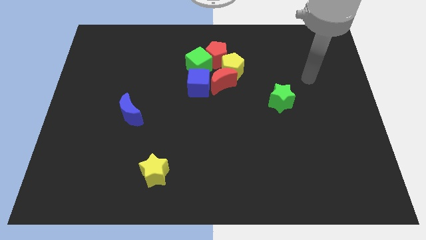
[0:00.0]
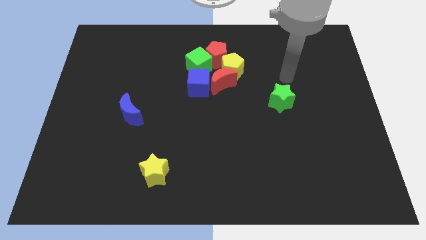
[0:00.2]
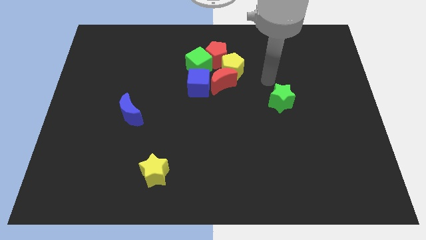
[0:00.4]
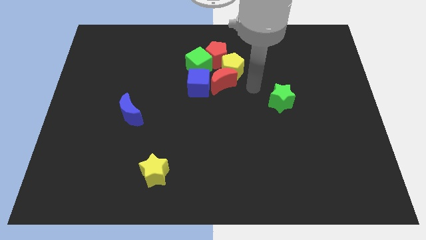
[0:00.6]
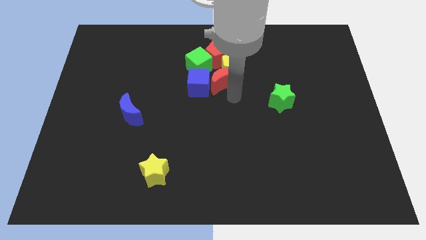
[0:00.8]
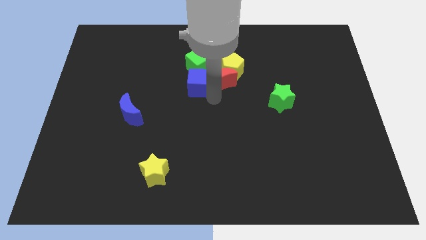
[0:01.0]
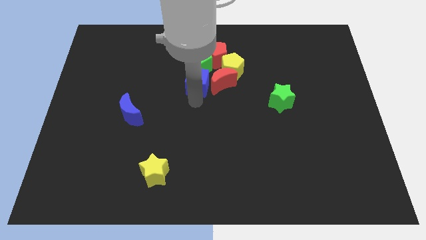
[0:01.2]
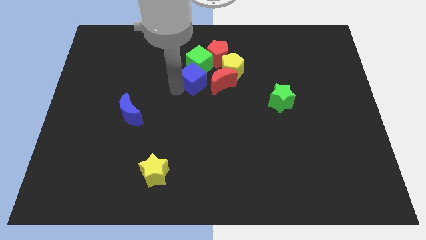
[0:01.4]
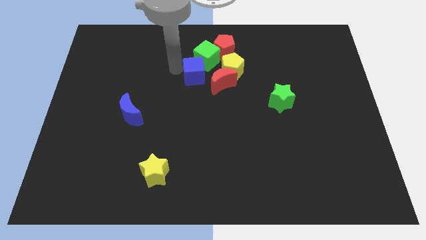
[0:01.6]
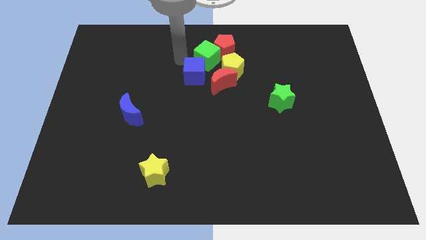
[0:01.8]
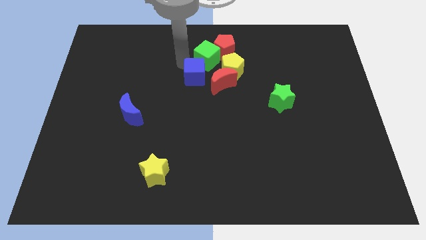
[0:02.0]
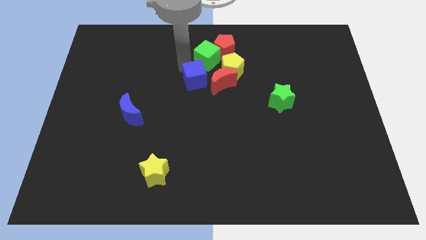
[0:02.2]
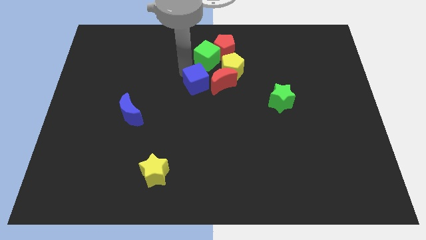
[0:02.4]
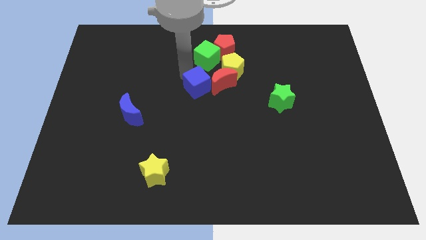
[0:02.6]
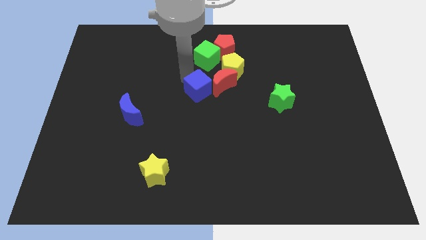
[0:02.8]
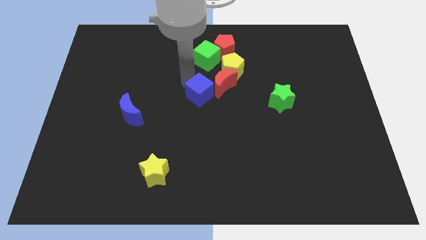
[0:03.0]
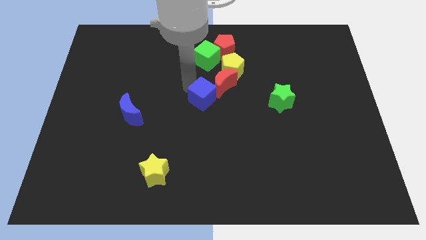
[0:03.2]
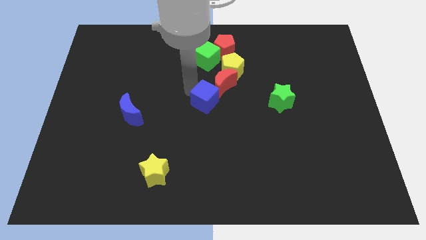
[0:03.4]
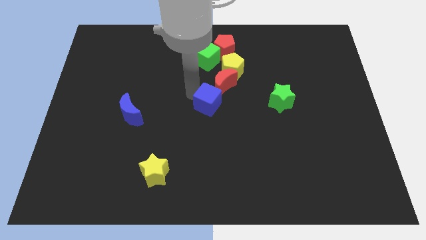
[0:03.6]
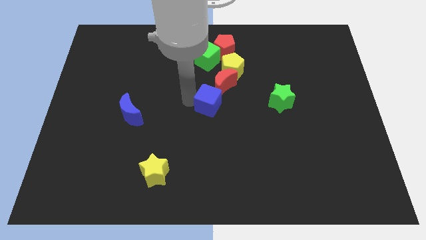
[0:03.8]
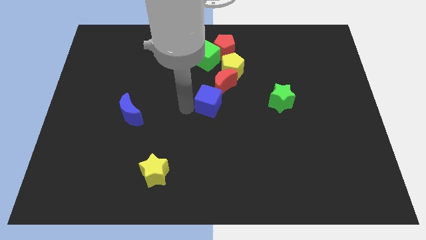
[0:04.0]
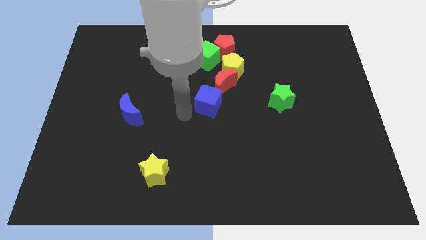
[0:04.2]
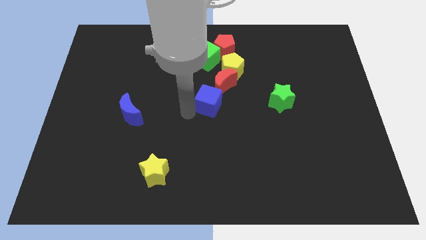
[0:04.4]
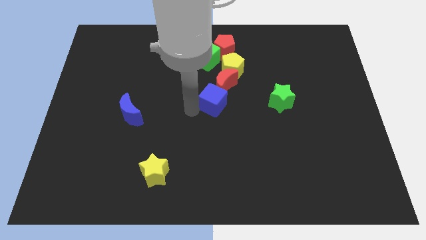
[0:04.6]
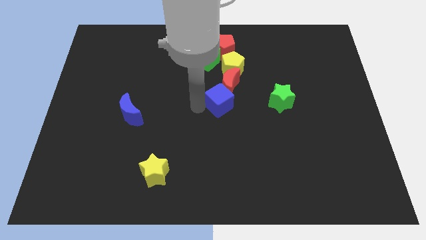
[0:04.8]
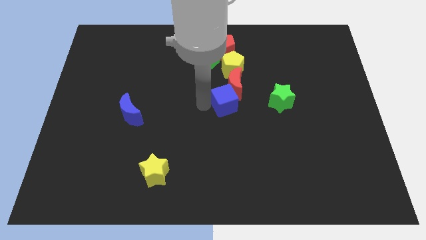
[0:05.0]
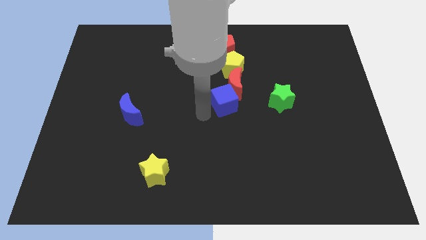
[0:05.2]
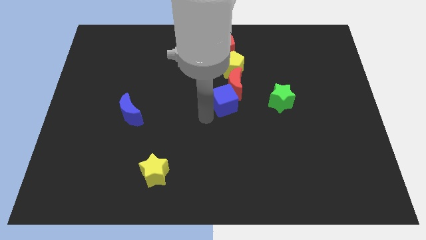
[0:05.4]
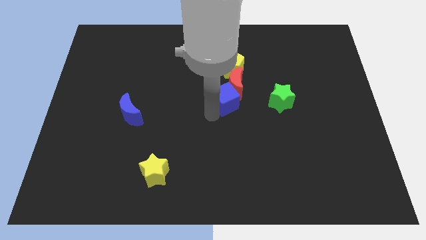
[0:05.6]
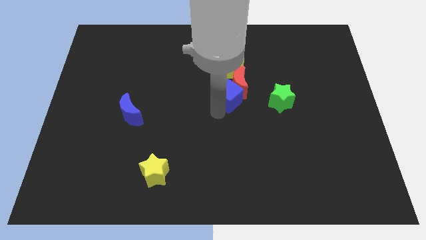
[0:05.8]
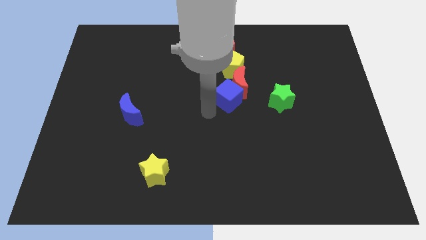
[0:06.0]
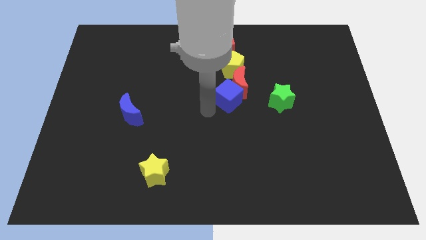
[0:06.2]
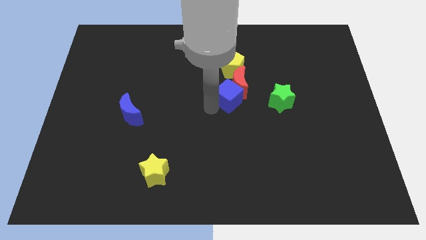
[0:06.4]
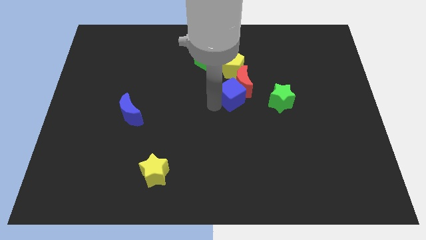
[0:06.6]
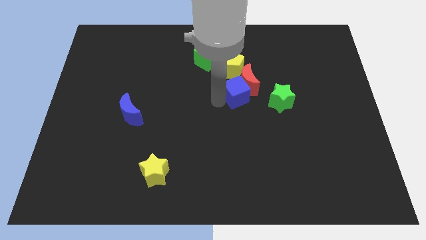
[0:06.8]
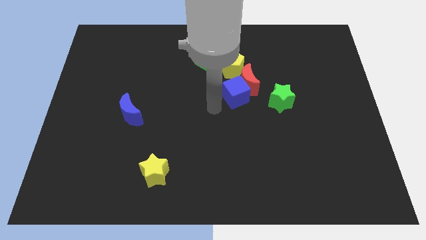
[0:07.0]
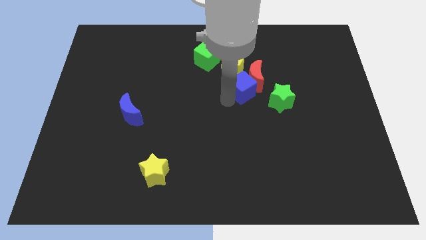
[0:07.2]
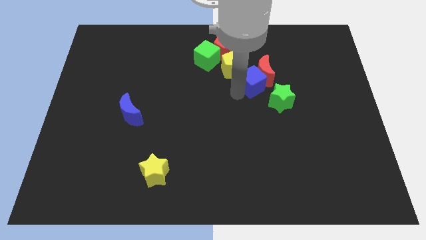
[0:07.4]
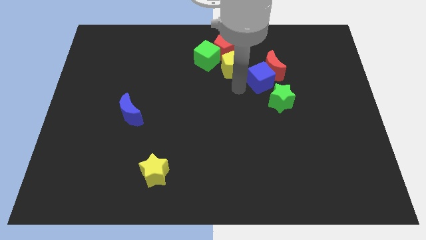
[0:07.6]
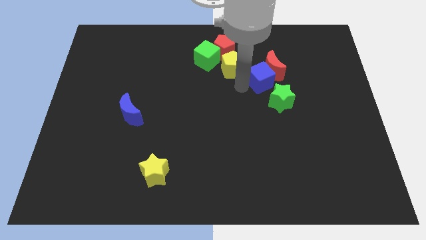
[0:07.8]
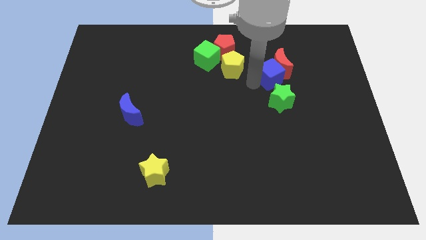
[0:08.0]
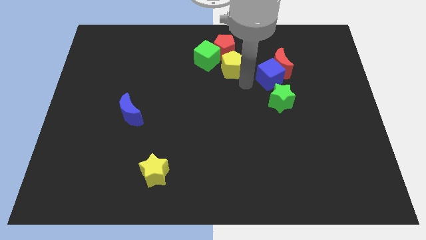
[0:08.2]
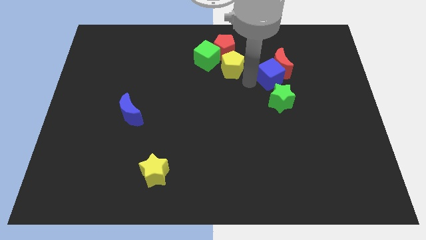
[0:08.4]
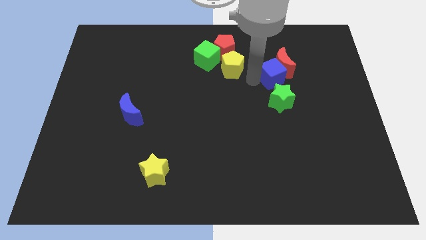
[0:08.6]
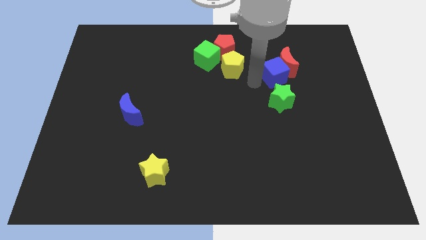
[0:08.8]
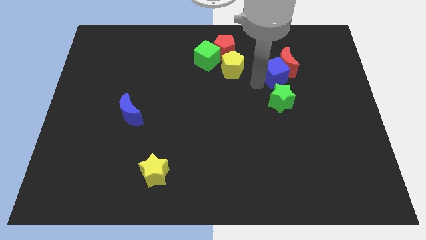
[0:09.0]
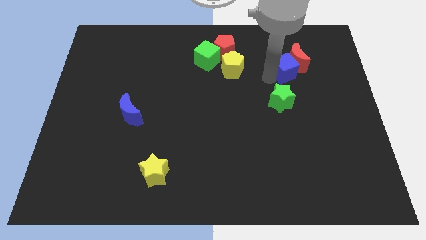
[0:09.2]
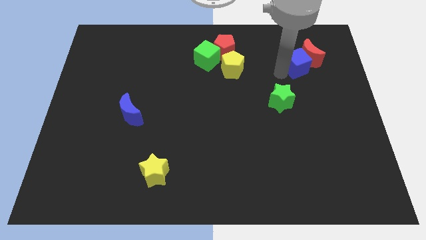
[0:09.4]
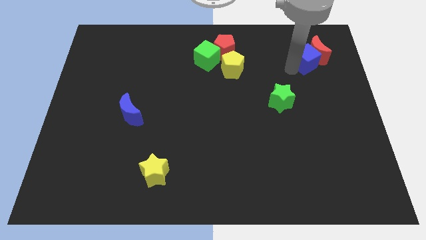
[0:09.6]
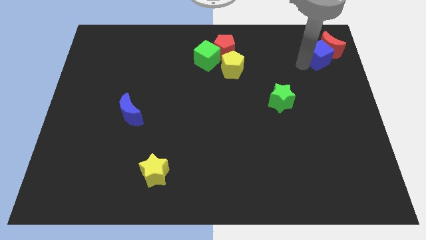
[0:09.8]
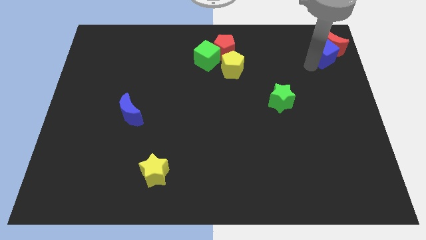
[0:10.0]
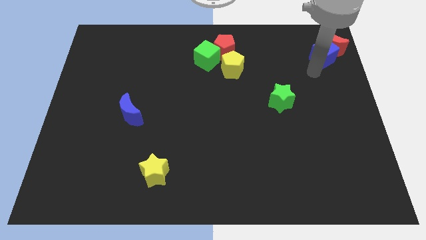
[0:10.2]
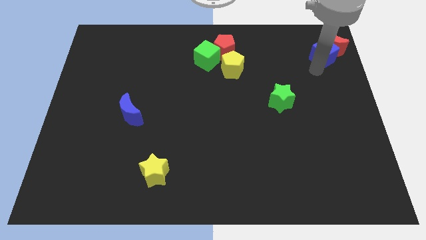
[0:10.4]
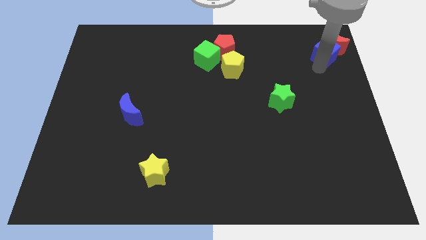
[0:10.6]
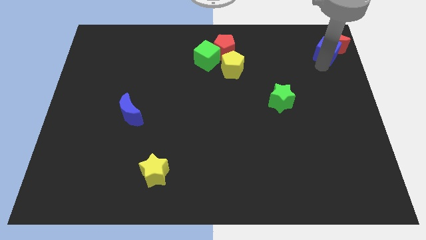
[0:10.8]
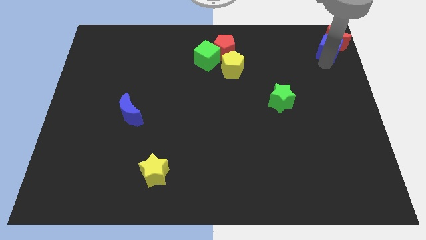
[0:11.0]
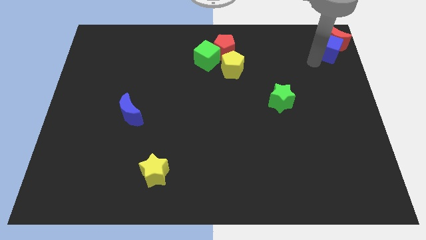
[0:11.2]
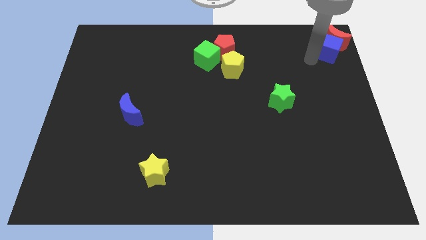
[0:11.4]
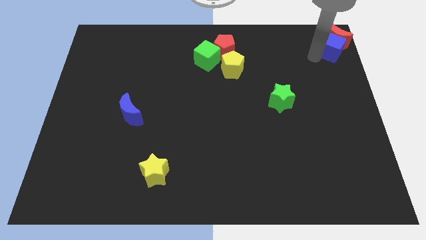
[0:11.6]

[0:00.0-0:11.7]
put the blue cube to the top right corner

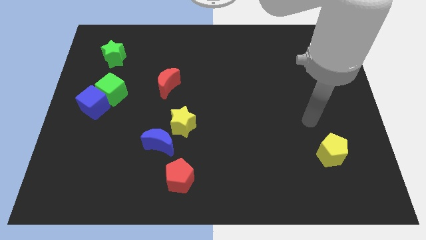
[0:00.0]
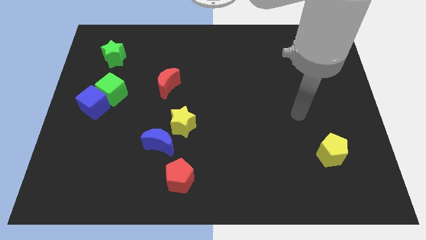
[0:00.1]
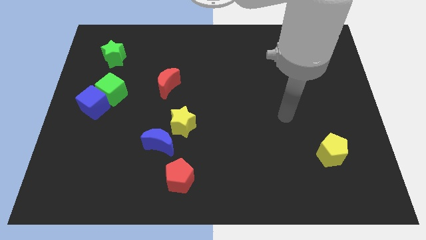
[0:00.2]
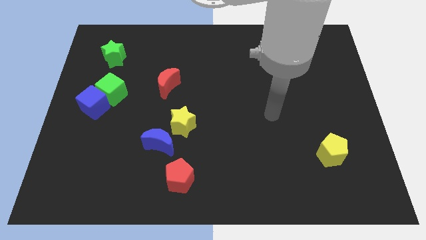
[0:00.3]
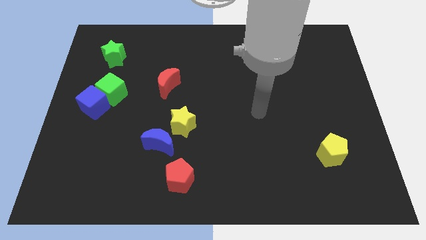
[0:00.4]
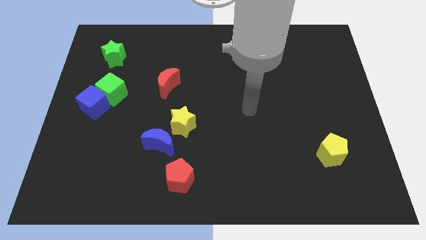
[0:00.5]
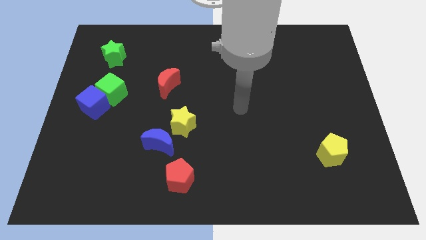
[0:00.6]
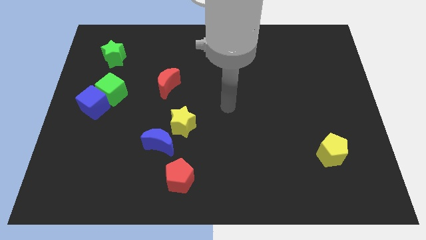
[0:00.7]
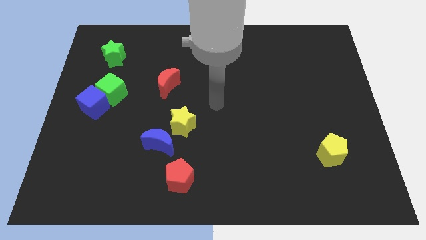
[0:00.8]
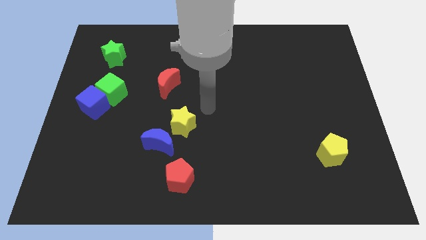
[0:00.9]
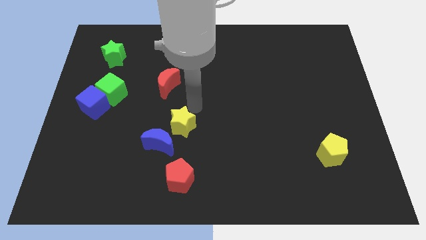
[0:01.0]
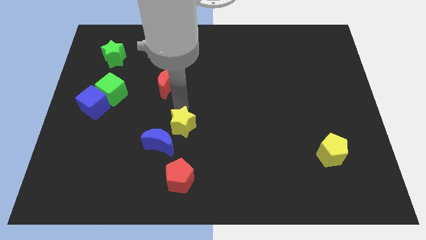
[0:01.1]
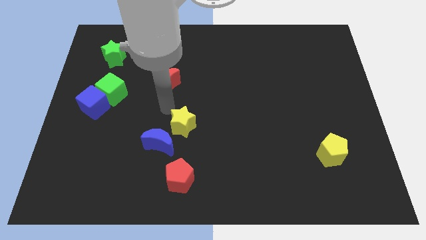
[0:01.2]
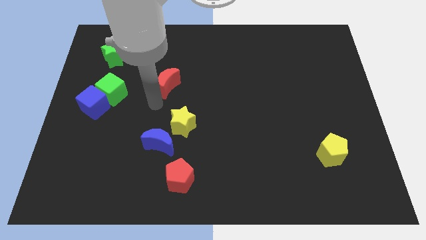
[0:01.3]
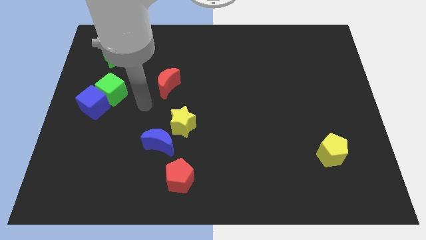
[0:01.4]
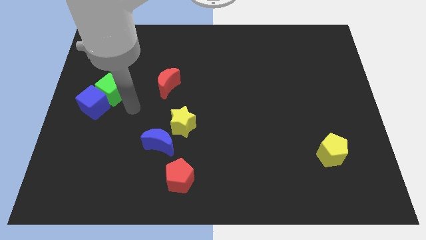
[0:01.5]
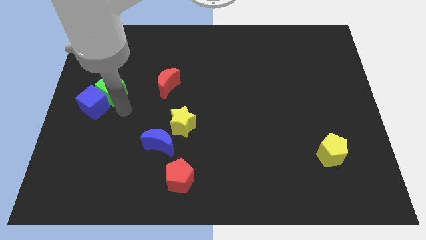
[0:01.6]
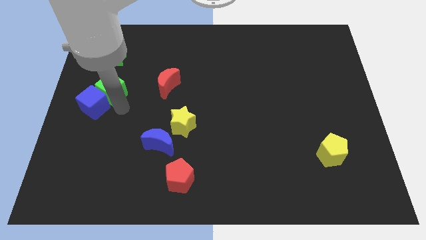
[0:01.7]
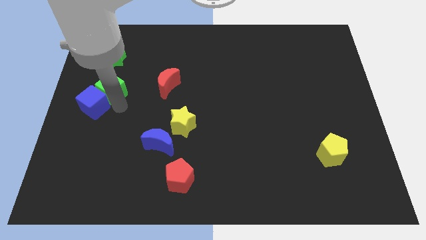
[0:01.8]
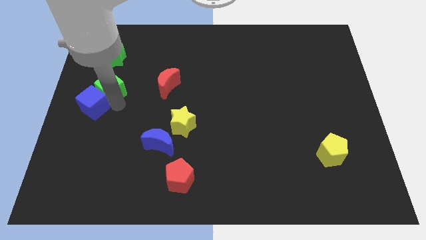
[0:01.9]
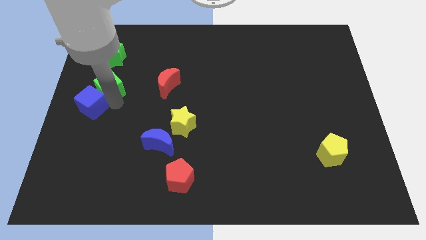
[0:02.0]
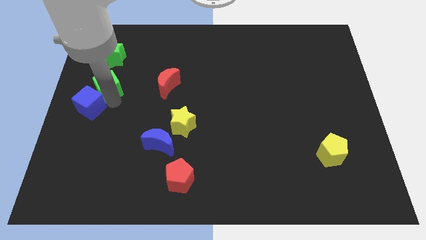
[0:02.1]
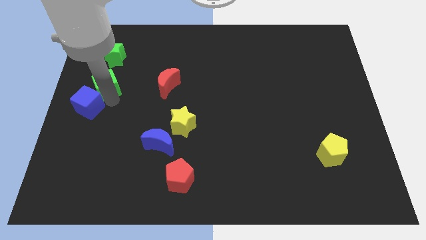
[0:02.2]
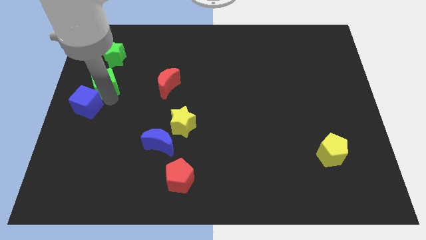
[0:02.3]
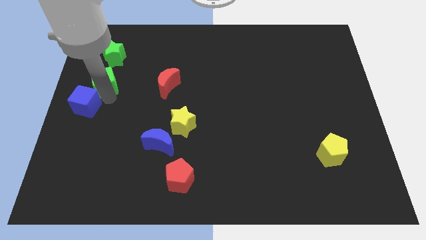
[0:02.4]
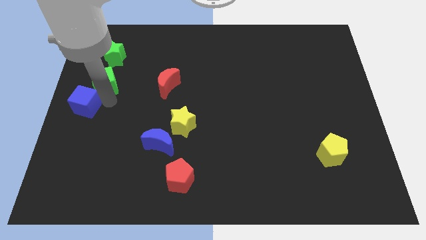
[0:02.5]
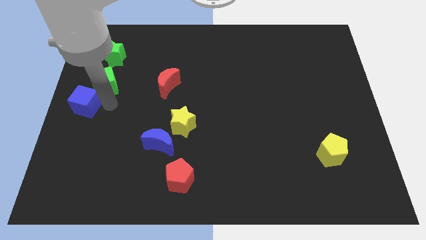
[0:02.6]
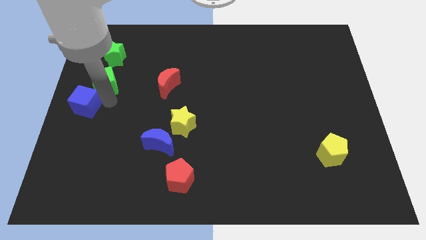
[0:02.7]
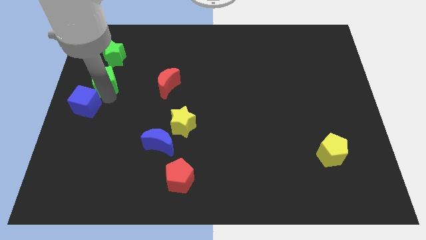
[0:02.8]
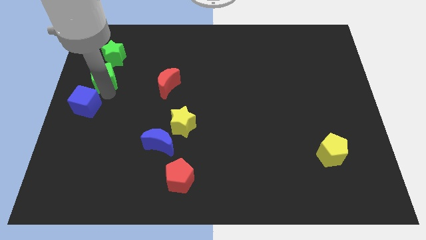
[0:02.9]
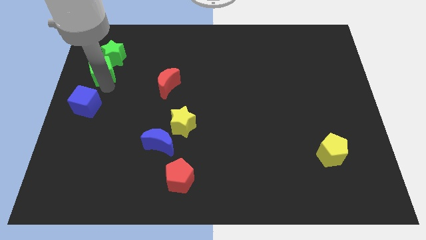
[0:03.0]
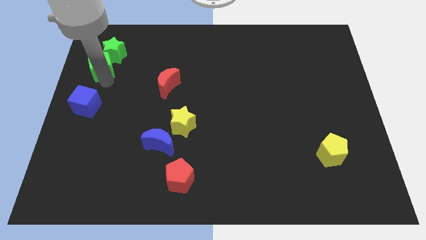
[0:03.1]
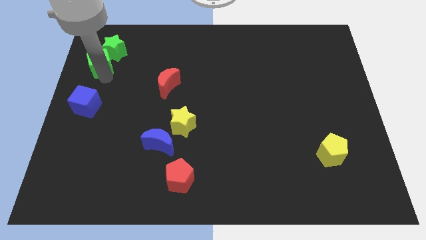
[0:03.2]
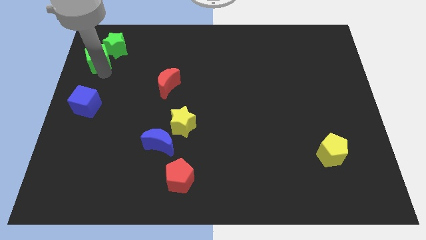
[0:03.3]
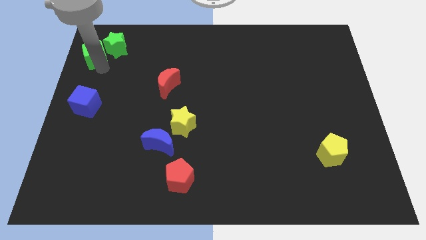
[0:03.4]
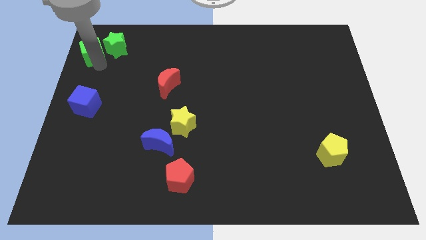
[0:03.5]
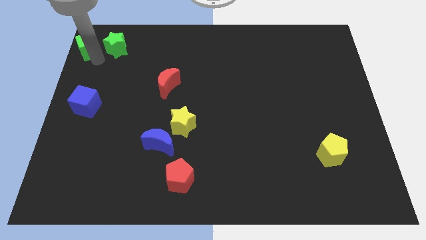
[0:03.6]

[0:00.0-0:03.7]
move the green cube to the upper left corner
